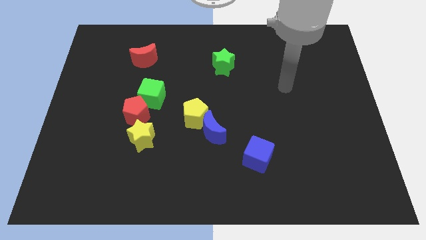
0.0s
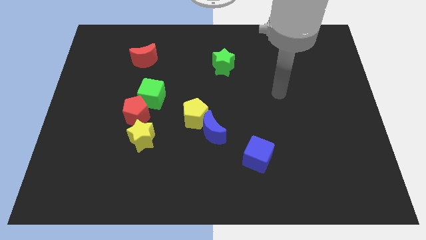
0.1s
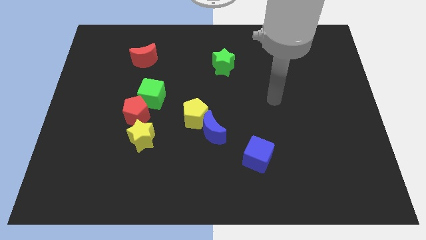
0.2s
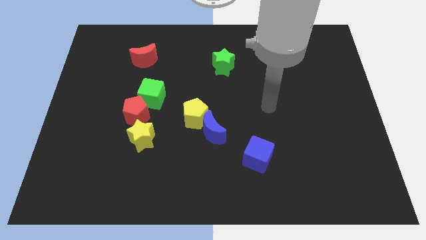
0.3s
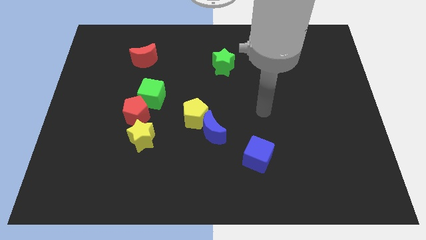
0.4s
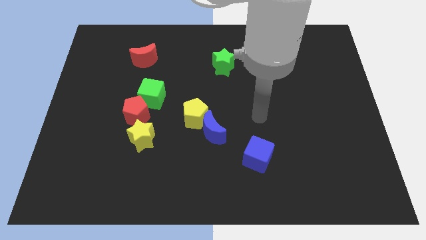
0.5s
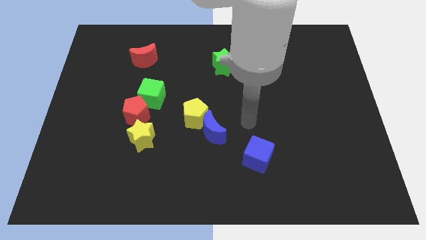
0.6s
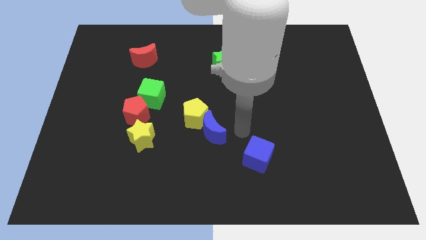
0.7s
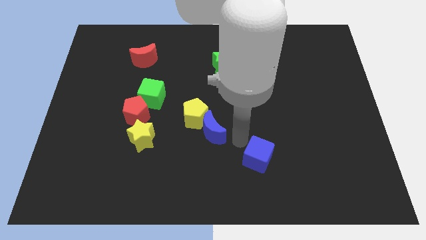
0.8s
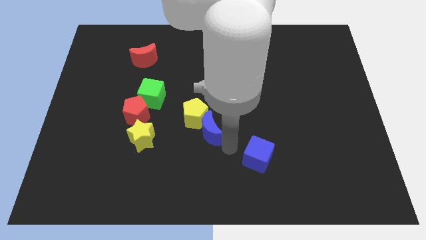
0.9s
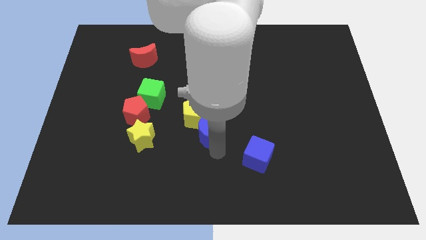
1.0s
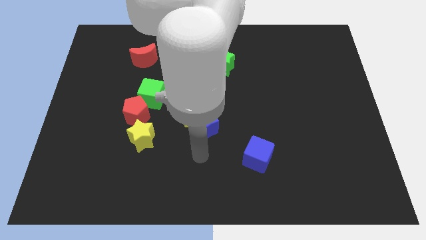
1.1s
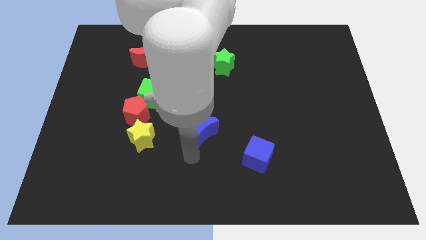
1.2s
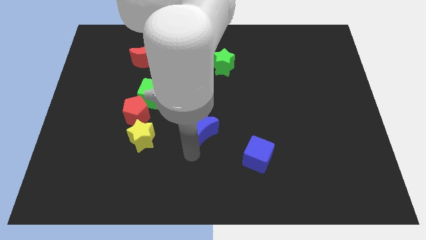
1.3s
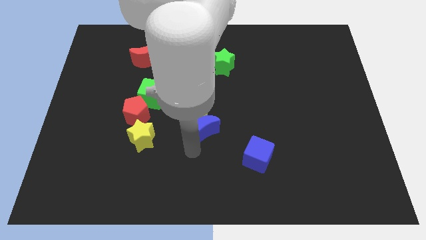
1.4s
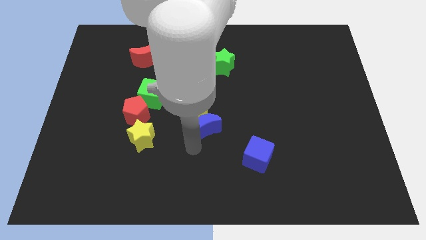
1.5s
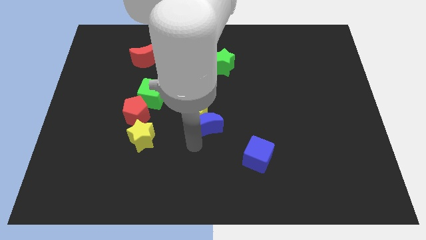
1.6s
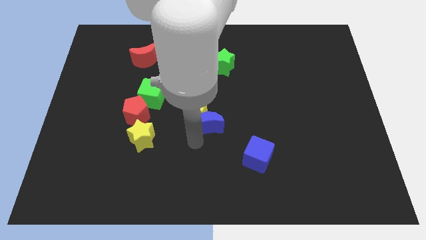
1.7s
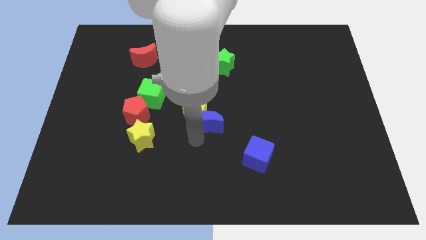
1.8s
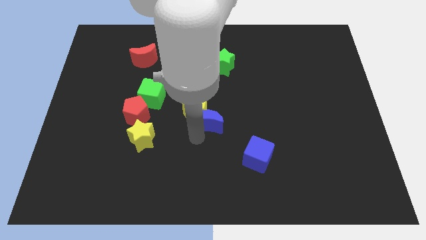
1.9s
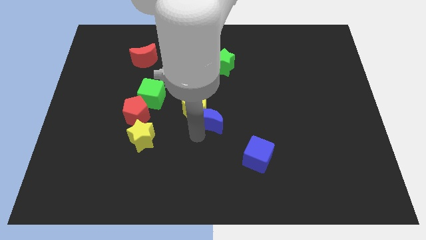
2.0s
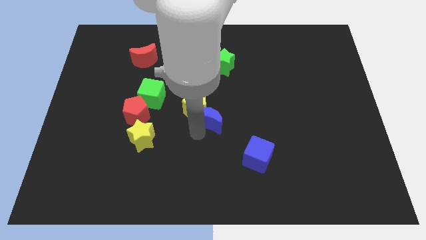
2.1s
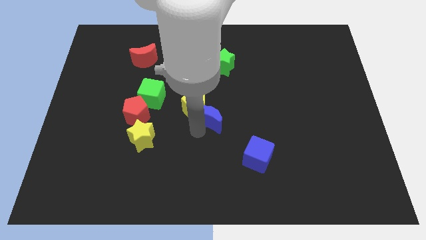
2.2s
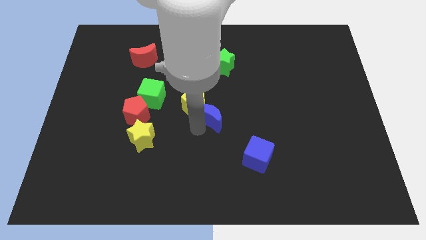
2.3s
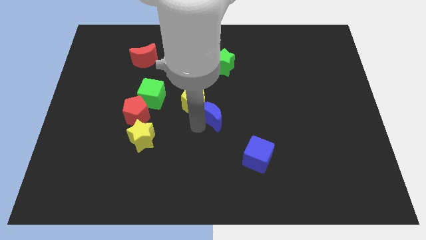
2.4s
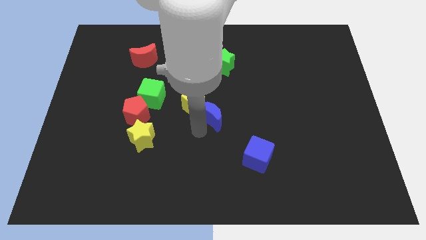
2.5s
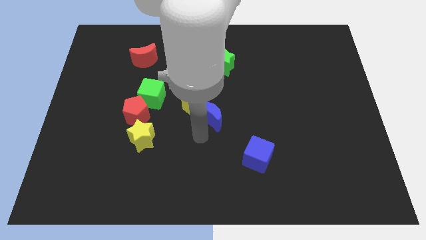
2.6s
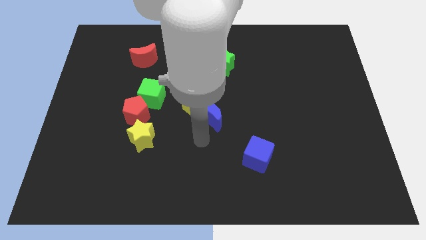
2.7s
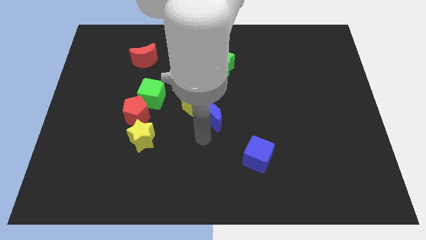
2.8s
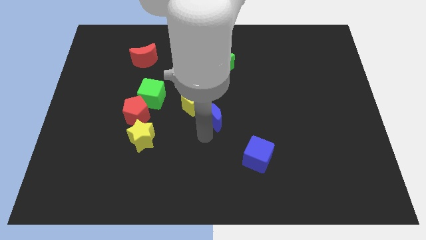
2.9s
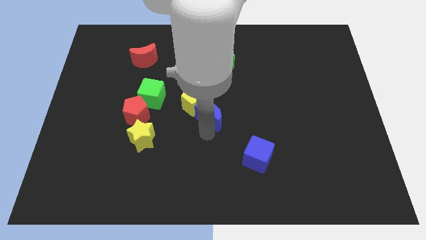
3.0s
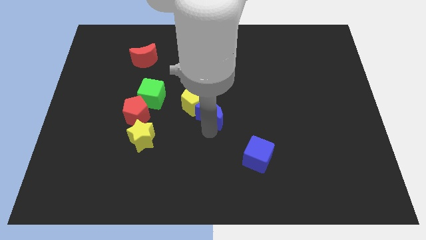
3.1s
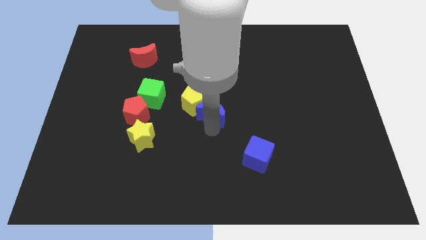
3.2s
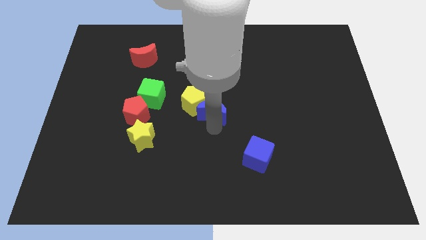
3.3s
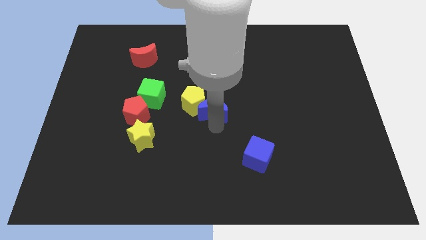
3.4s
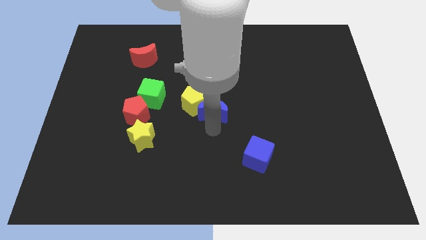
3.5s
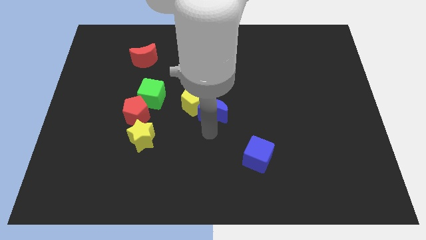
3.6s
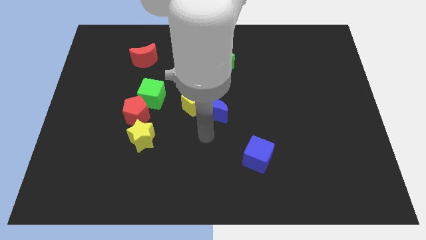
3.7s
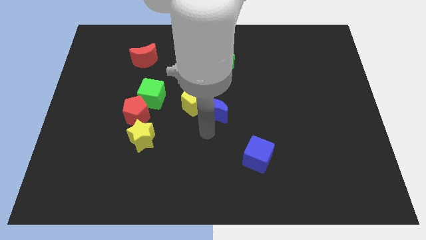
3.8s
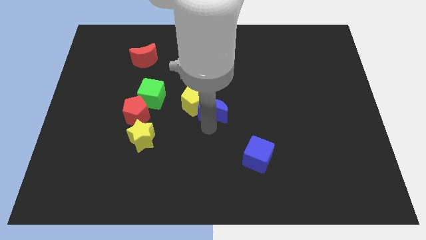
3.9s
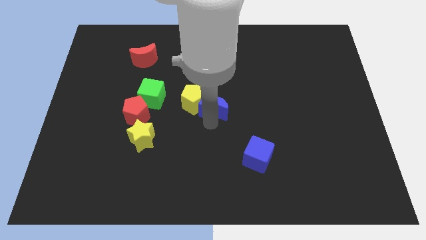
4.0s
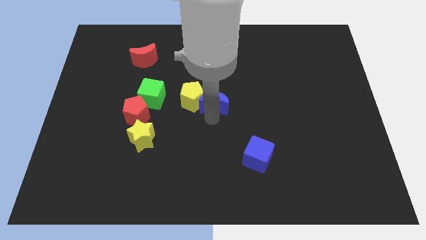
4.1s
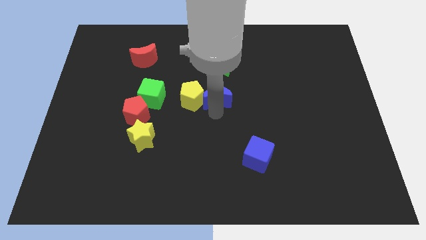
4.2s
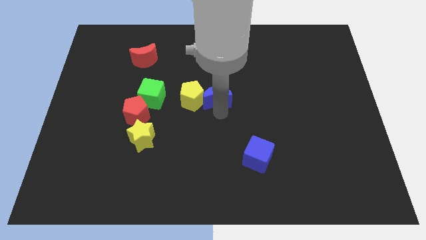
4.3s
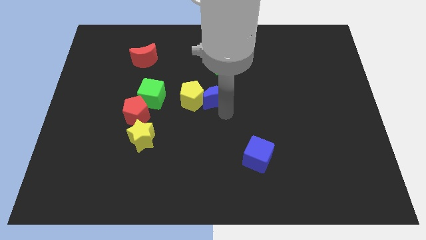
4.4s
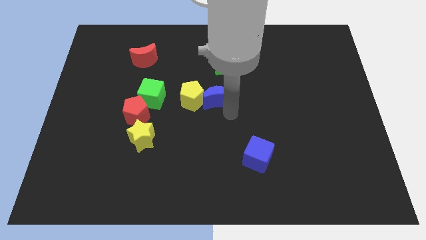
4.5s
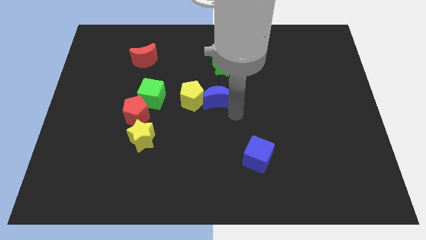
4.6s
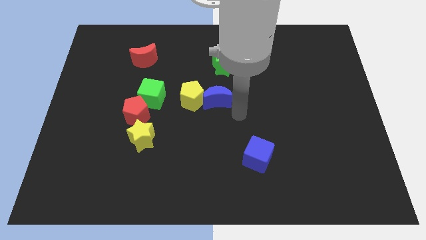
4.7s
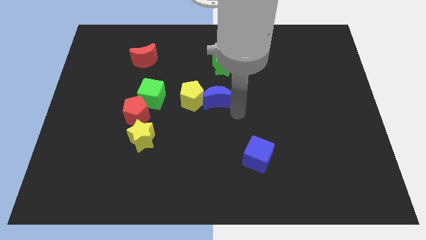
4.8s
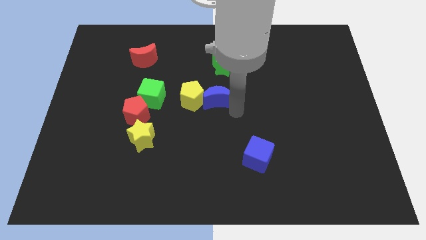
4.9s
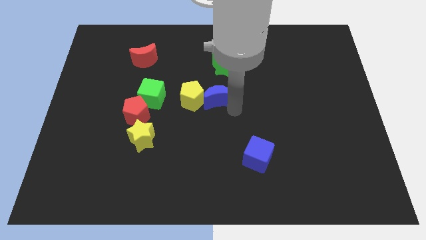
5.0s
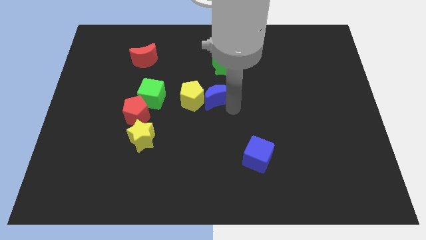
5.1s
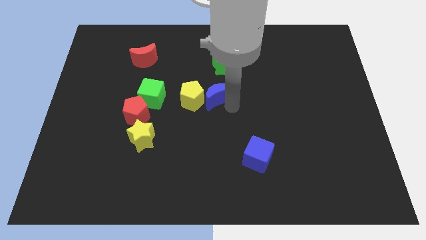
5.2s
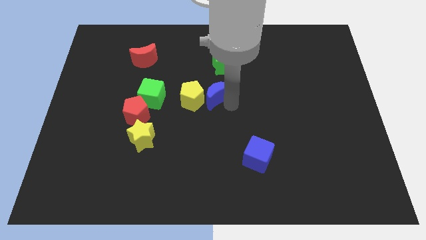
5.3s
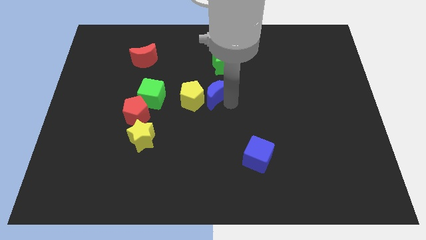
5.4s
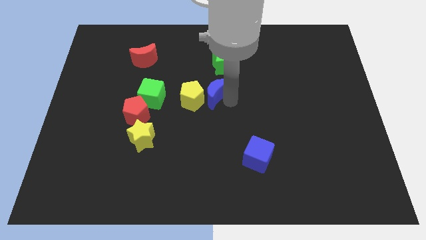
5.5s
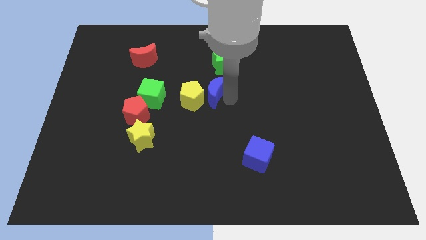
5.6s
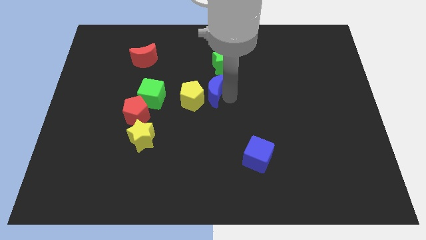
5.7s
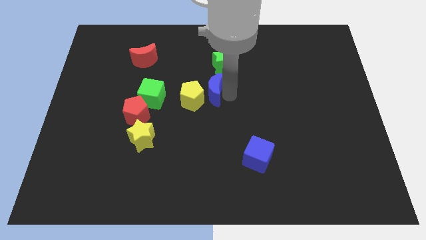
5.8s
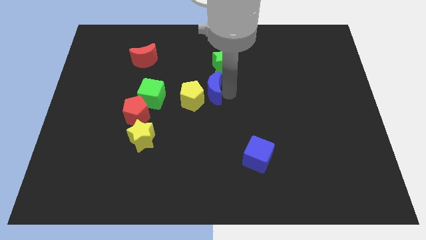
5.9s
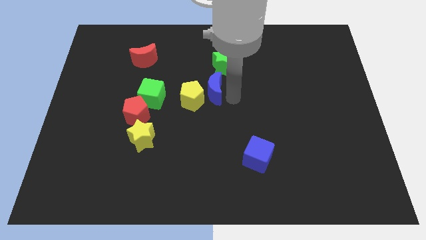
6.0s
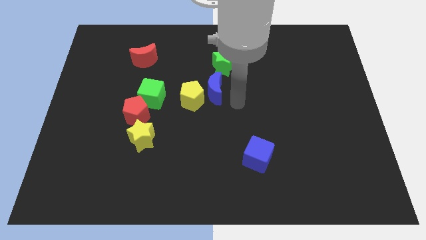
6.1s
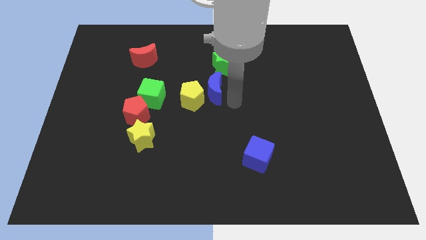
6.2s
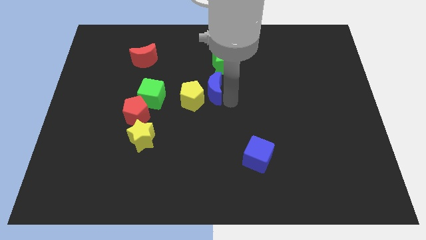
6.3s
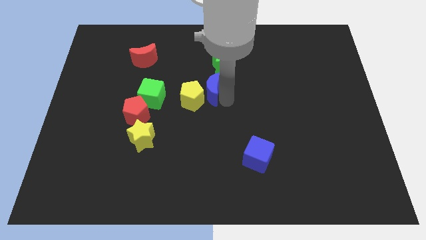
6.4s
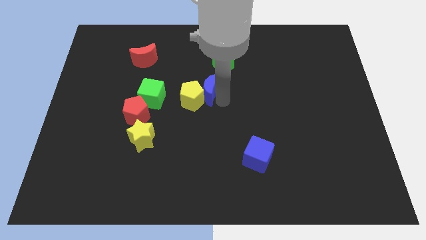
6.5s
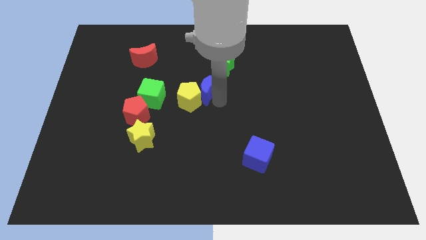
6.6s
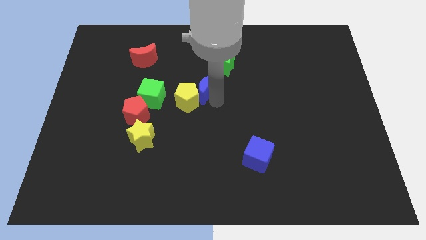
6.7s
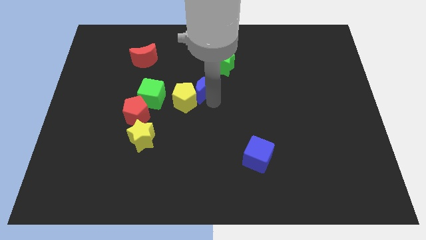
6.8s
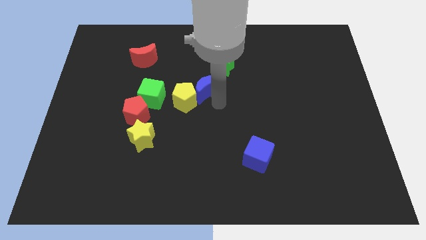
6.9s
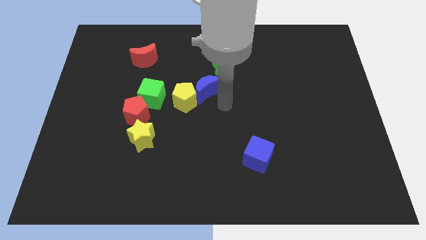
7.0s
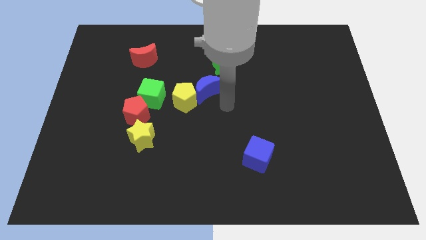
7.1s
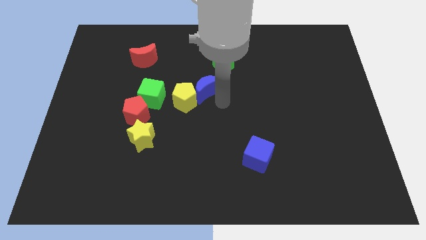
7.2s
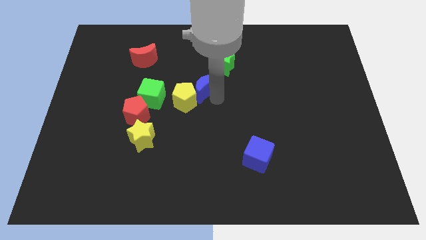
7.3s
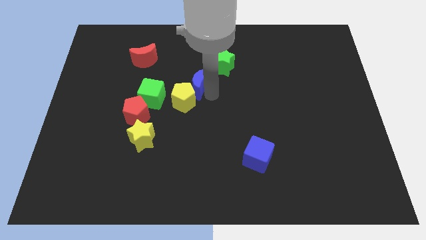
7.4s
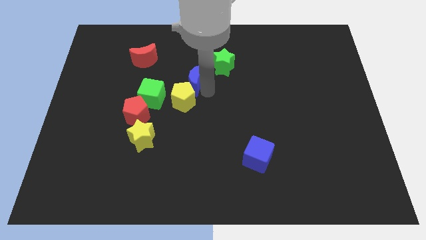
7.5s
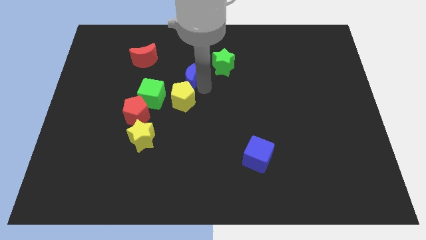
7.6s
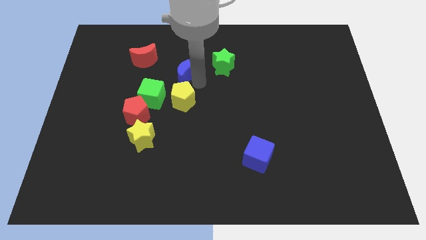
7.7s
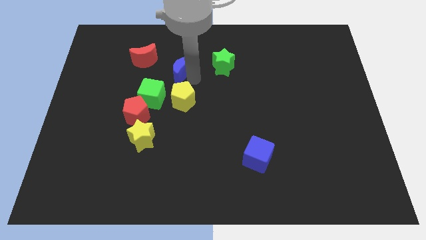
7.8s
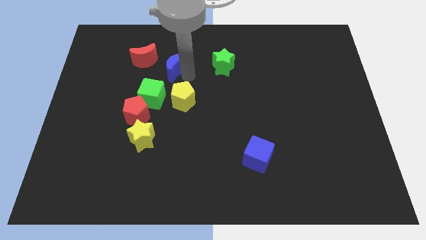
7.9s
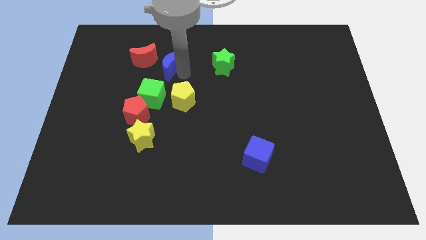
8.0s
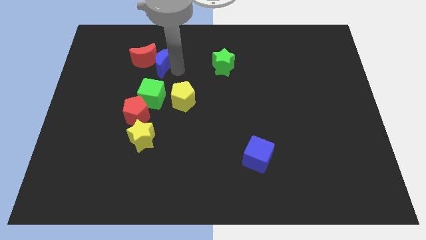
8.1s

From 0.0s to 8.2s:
move the blue moon next to the red moon
